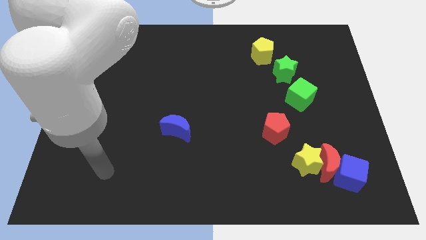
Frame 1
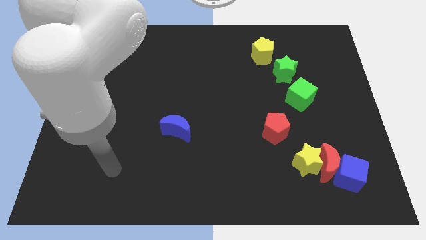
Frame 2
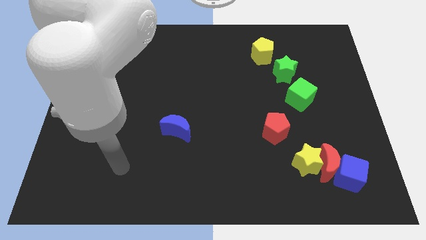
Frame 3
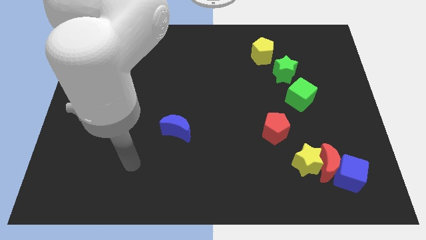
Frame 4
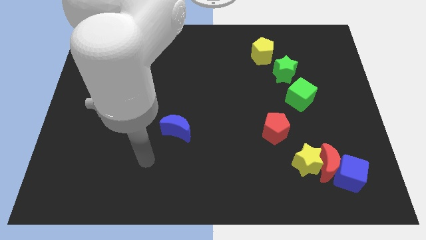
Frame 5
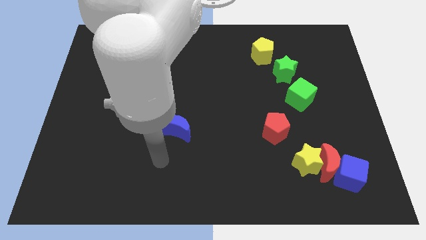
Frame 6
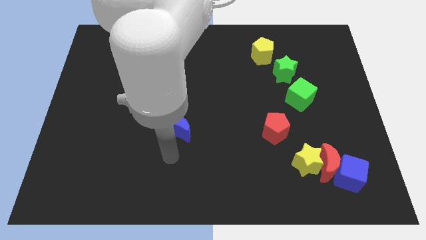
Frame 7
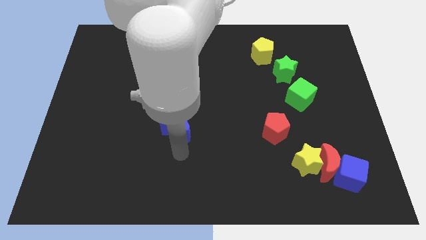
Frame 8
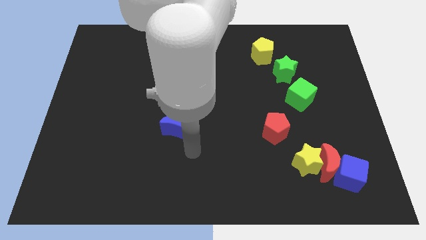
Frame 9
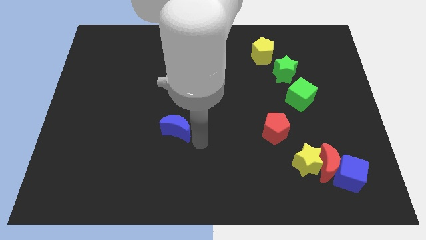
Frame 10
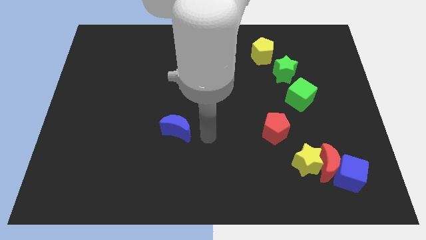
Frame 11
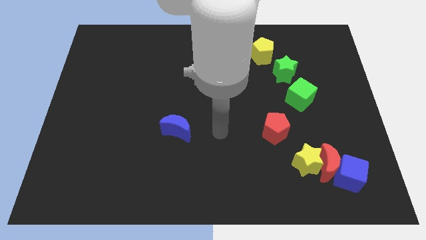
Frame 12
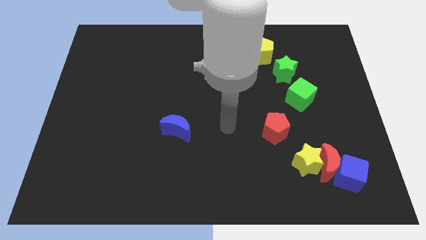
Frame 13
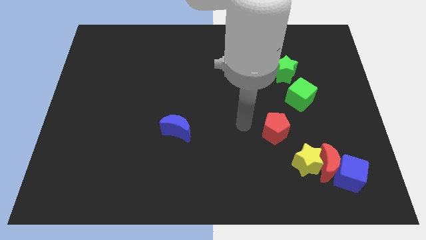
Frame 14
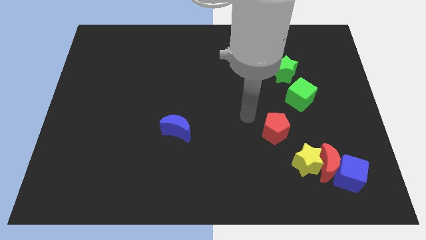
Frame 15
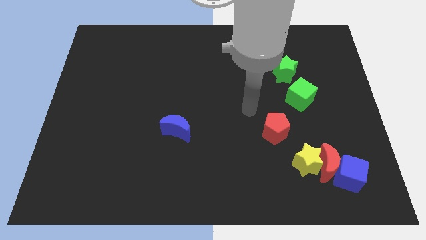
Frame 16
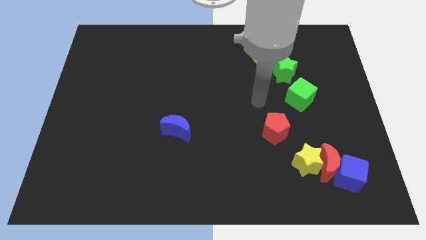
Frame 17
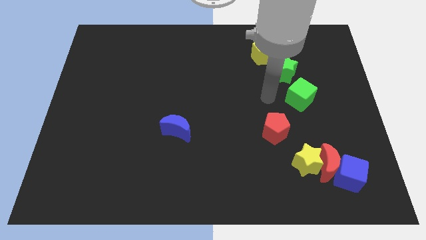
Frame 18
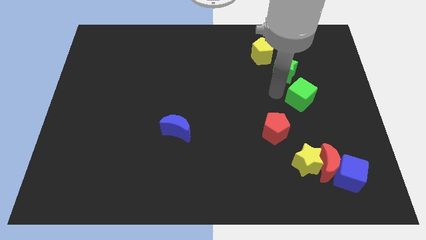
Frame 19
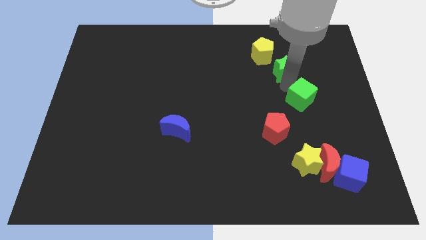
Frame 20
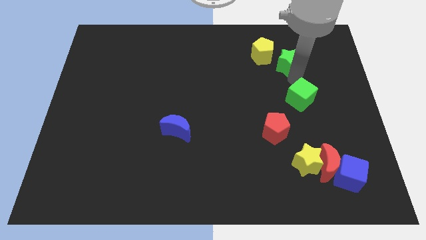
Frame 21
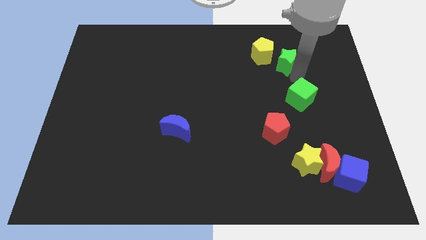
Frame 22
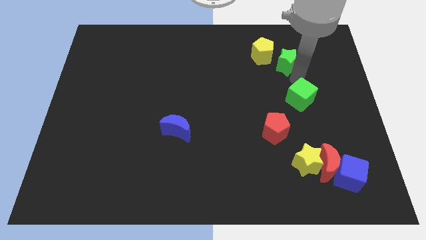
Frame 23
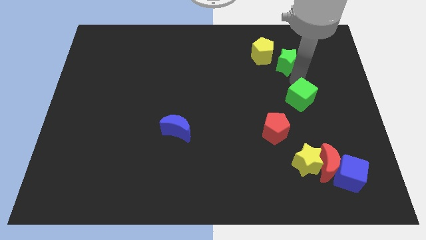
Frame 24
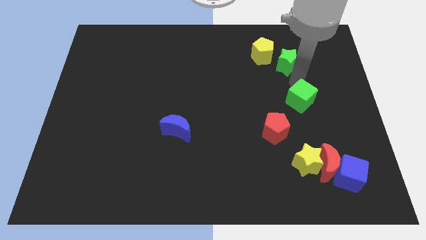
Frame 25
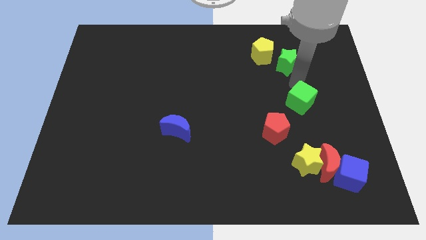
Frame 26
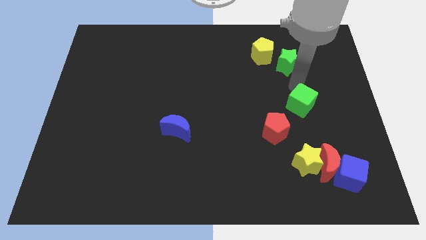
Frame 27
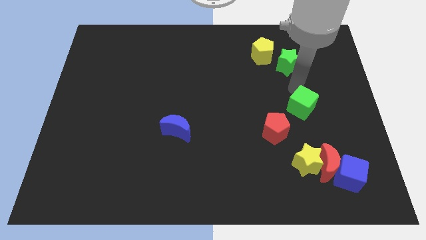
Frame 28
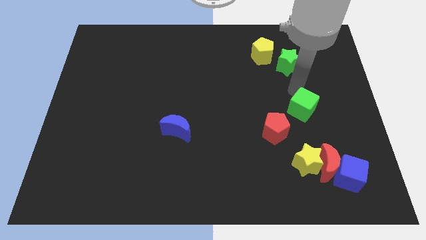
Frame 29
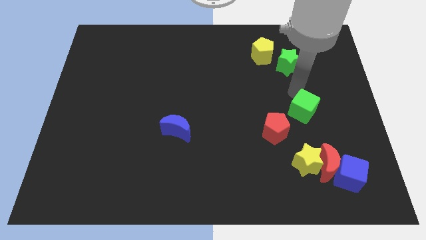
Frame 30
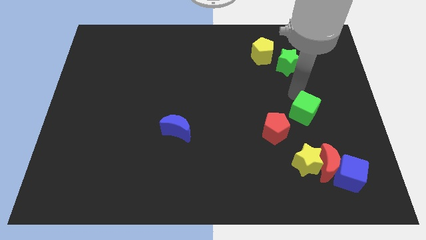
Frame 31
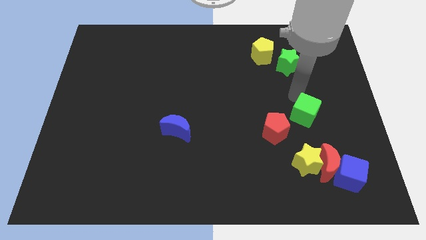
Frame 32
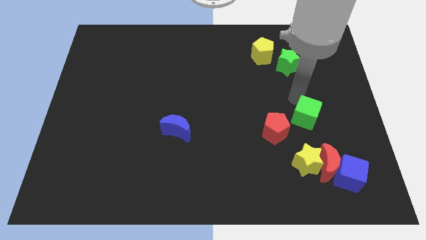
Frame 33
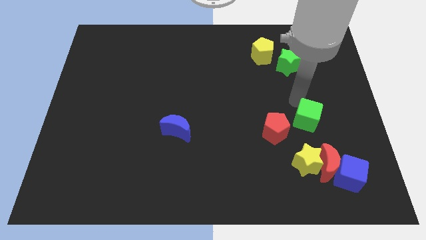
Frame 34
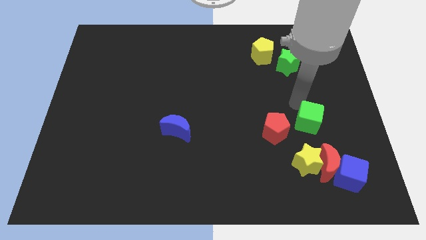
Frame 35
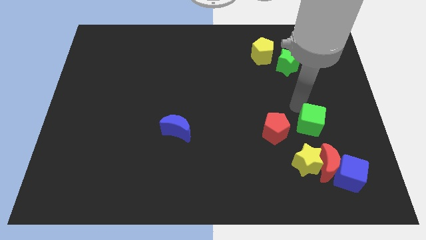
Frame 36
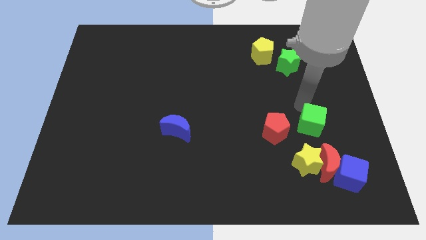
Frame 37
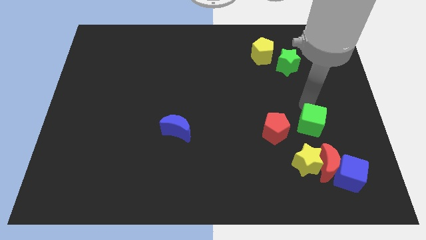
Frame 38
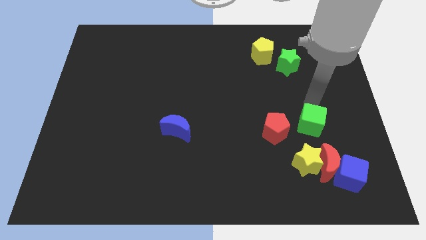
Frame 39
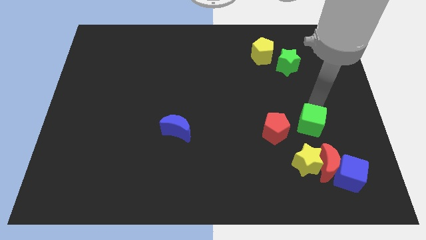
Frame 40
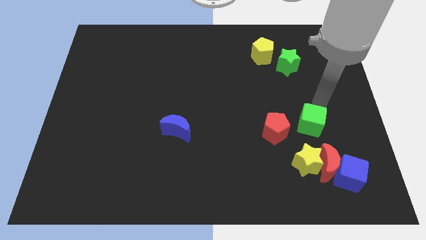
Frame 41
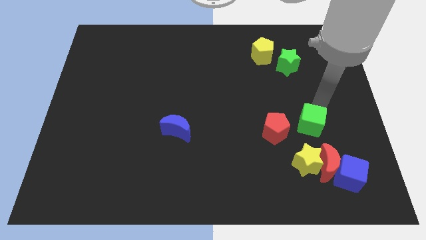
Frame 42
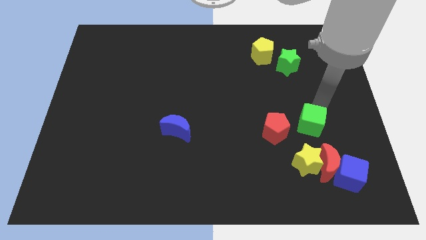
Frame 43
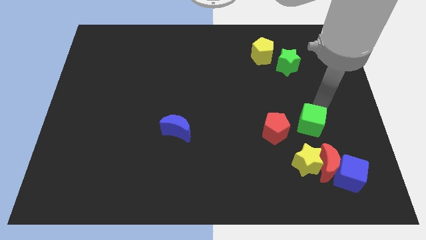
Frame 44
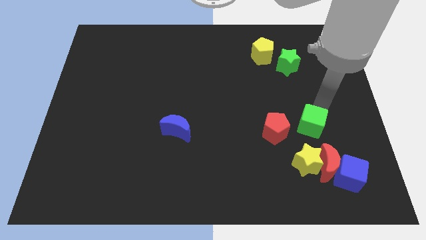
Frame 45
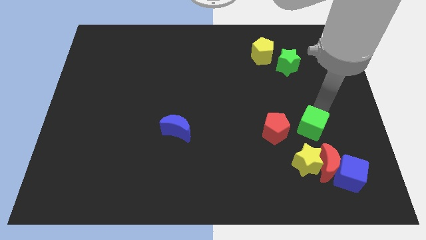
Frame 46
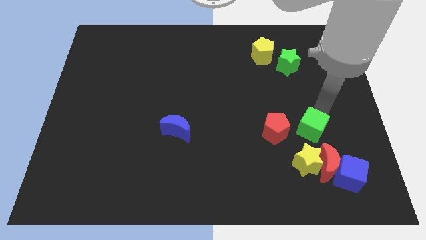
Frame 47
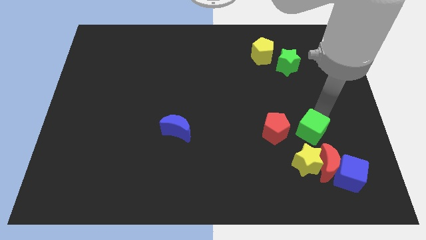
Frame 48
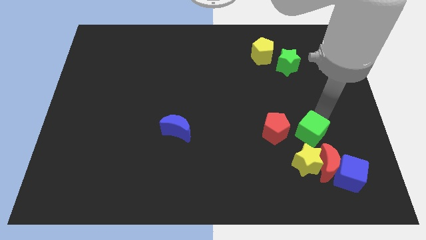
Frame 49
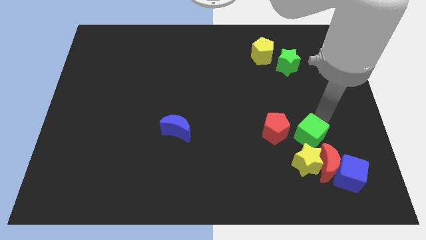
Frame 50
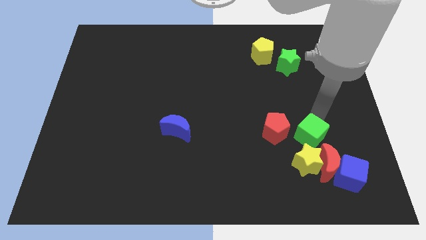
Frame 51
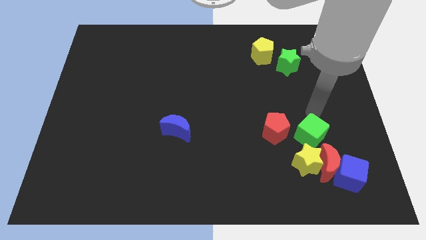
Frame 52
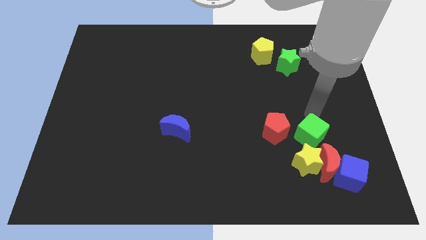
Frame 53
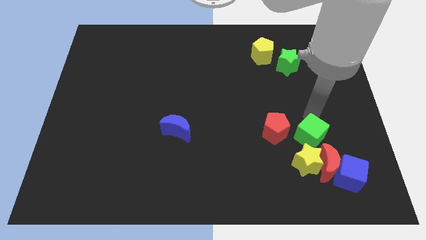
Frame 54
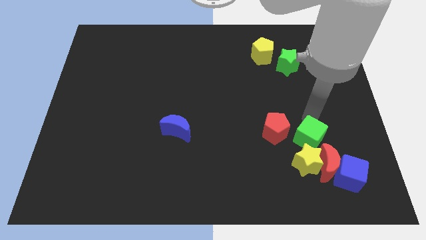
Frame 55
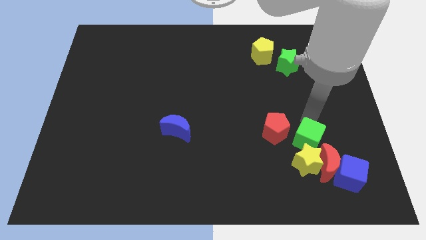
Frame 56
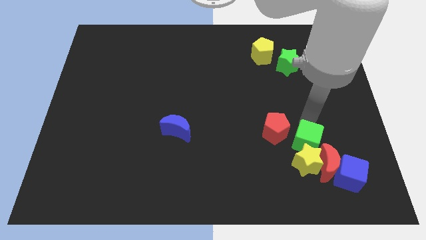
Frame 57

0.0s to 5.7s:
slide the green cube towards the yellow star

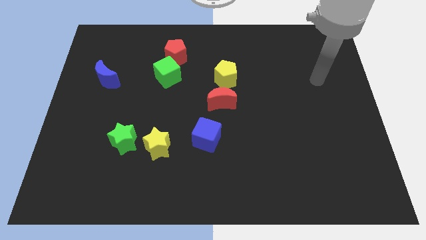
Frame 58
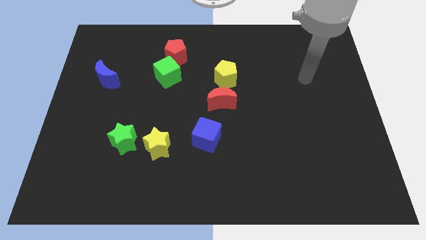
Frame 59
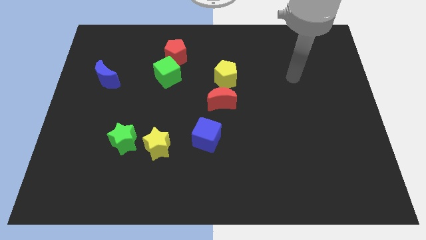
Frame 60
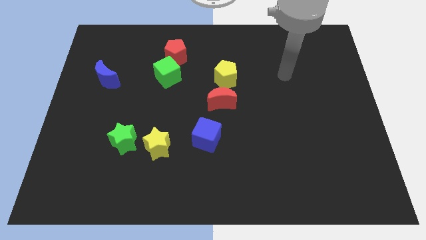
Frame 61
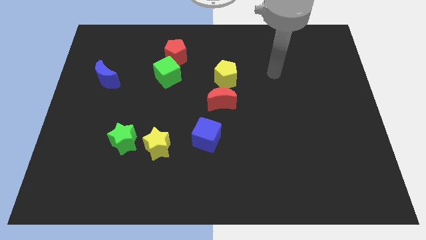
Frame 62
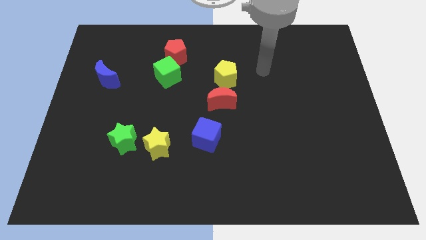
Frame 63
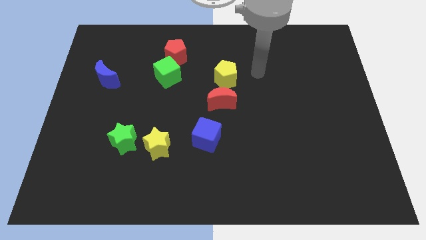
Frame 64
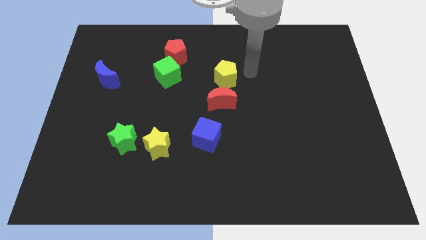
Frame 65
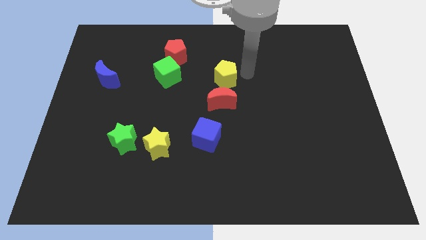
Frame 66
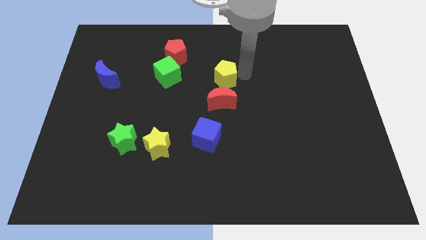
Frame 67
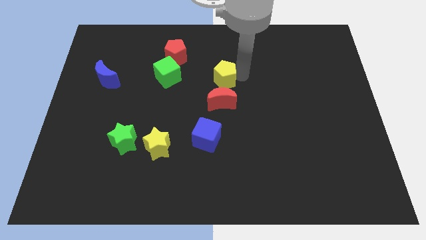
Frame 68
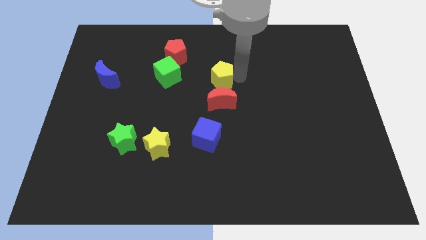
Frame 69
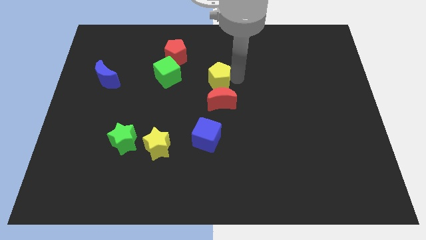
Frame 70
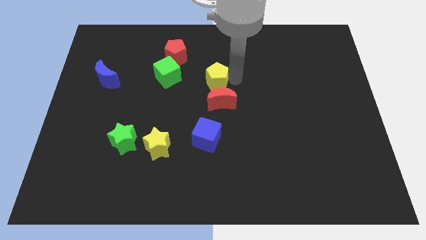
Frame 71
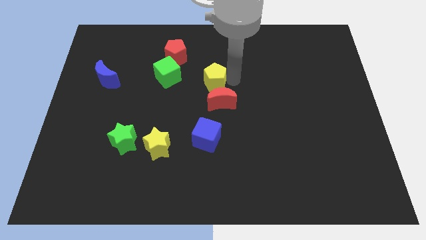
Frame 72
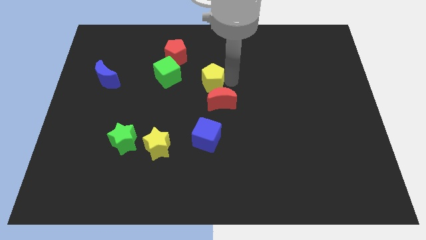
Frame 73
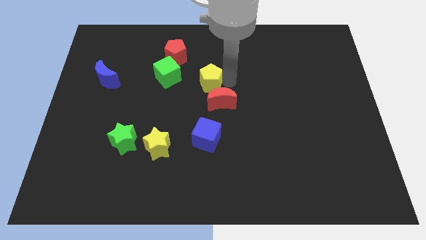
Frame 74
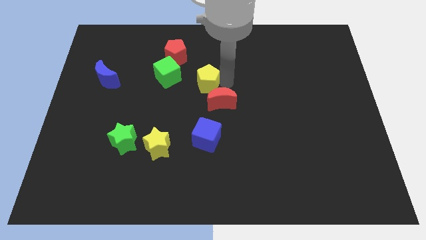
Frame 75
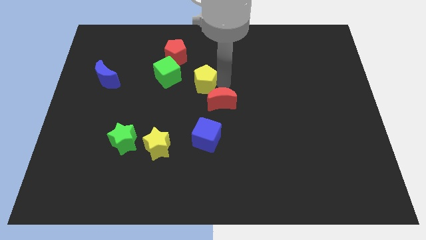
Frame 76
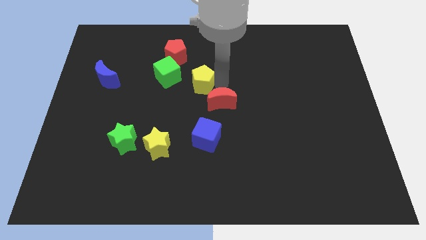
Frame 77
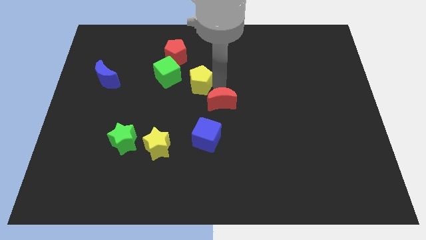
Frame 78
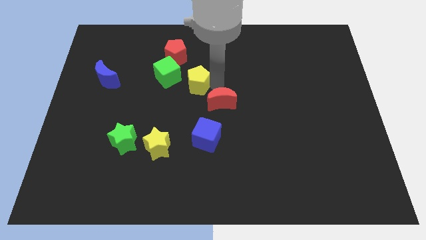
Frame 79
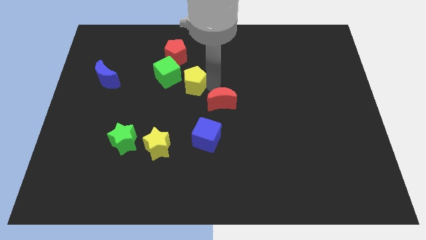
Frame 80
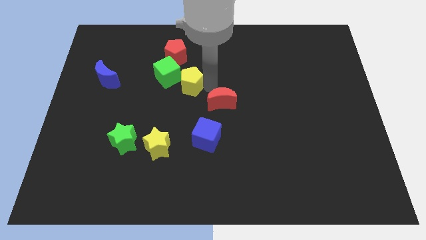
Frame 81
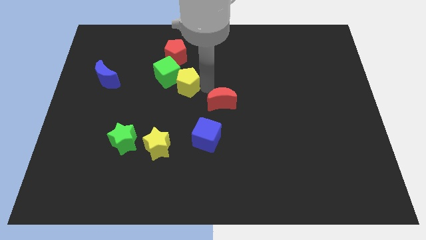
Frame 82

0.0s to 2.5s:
push the yellow pentagon next to the green cube
